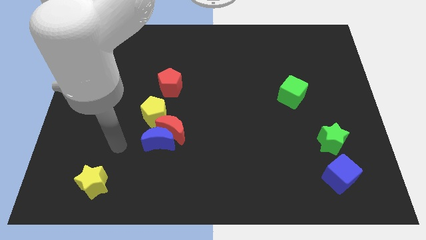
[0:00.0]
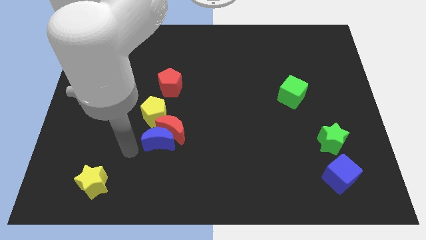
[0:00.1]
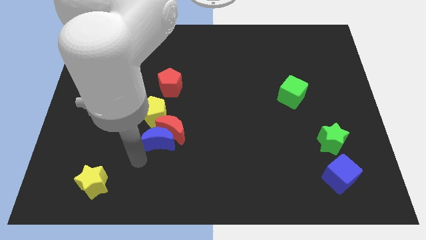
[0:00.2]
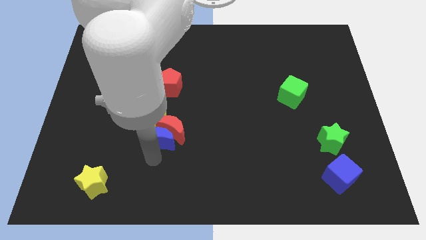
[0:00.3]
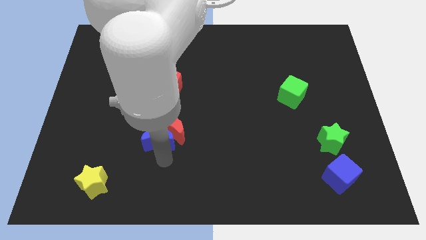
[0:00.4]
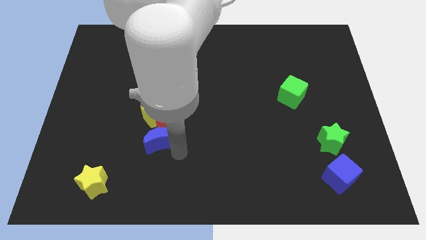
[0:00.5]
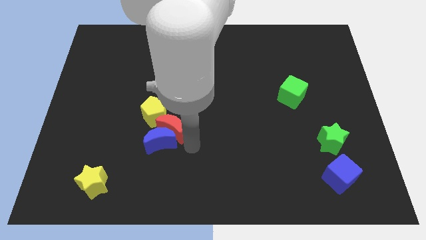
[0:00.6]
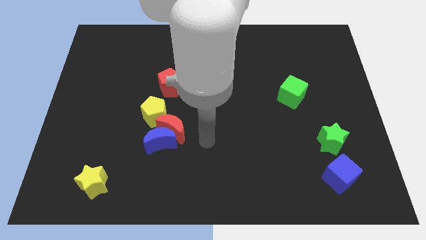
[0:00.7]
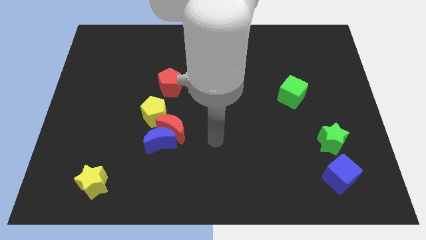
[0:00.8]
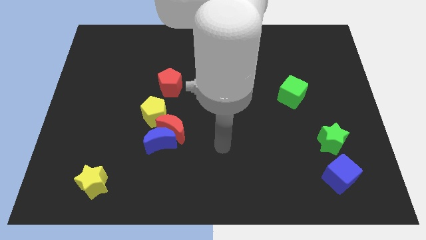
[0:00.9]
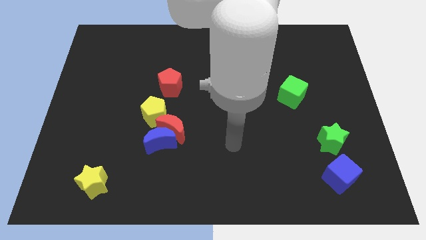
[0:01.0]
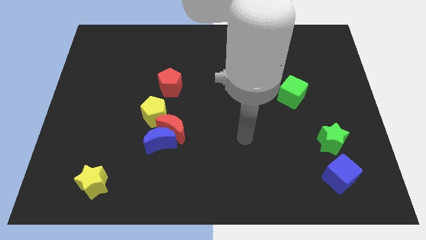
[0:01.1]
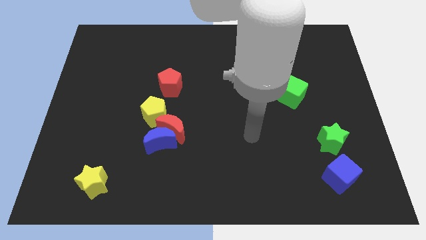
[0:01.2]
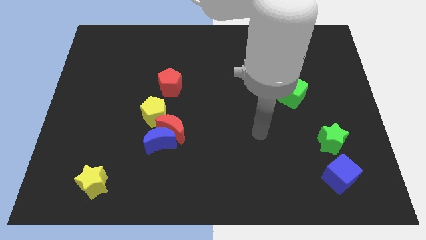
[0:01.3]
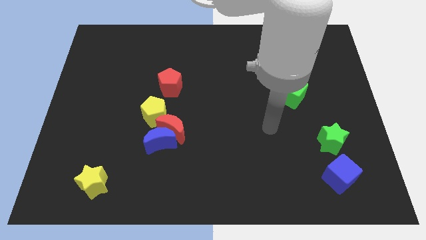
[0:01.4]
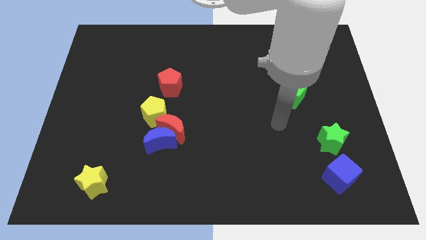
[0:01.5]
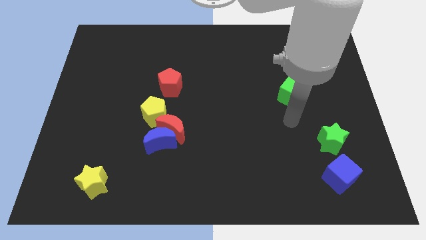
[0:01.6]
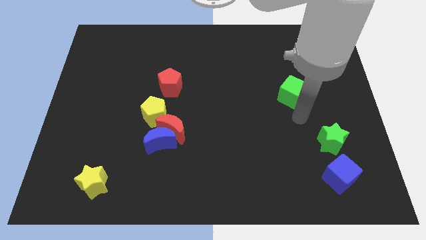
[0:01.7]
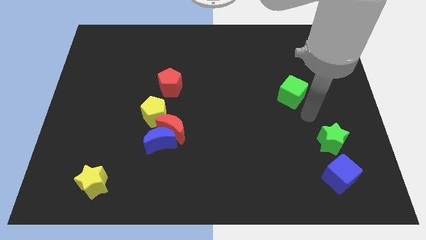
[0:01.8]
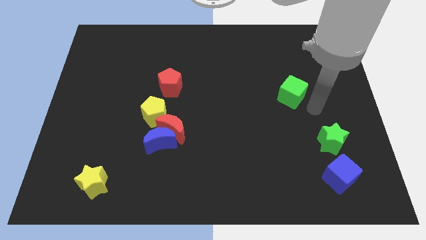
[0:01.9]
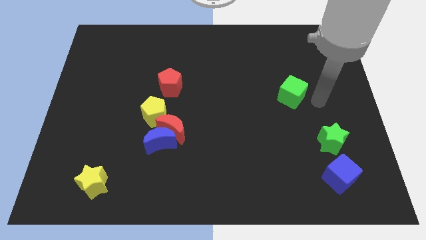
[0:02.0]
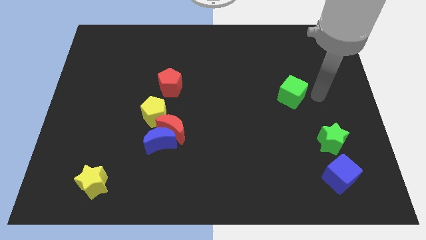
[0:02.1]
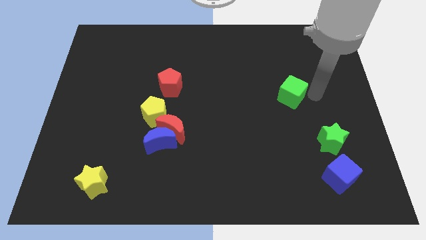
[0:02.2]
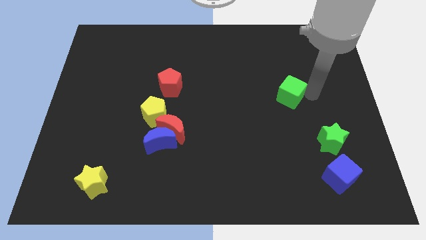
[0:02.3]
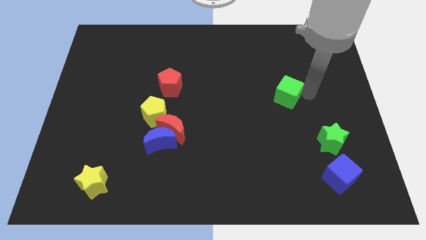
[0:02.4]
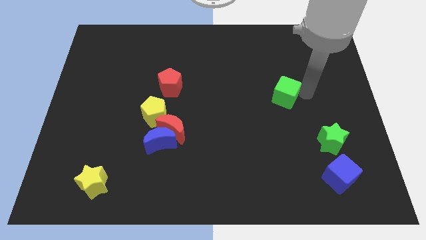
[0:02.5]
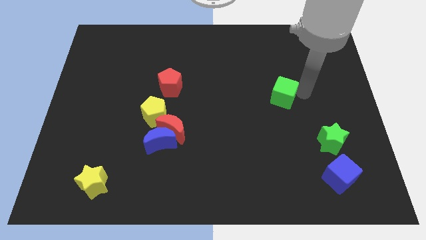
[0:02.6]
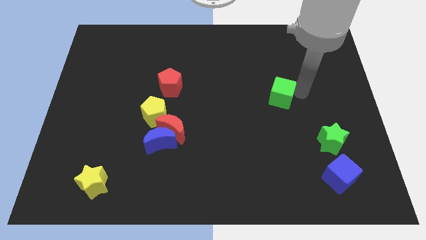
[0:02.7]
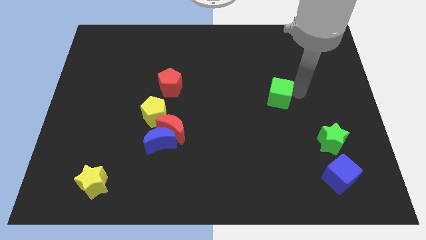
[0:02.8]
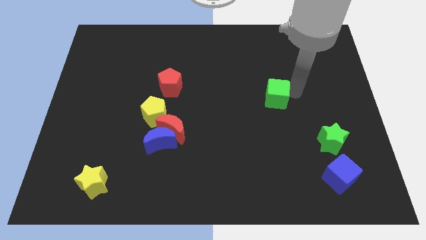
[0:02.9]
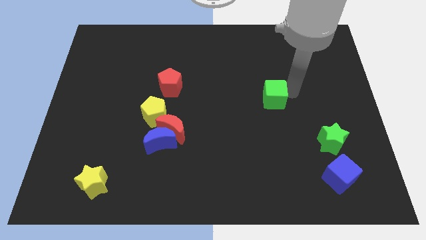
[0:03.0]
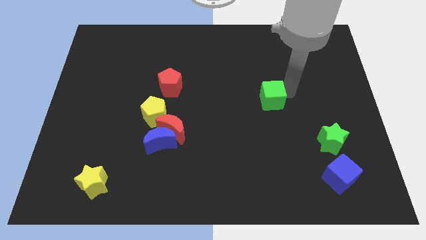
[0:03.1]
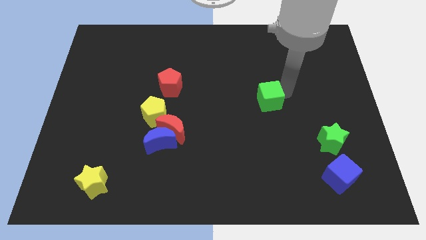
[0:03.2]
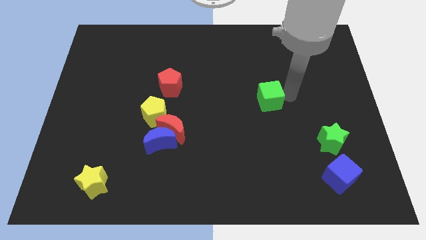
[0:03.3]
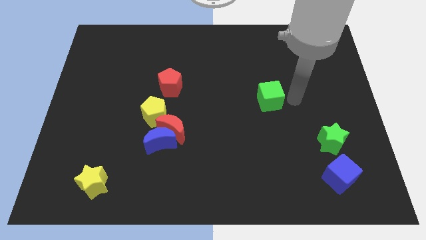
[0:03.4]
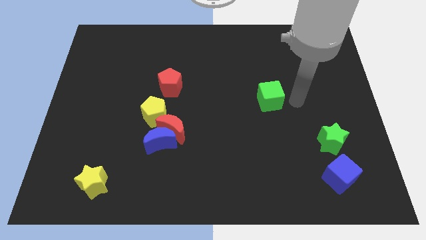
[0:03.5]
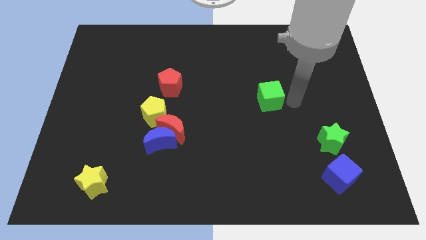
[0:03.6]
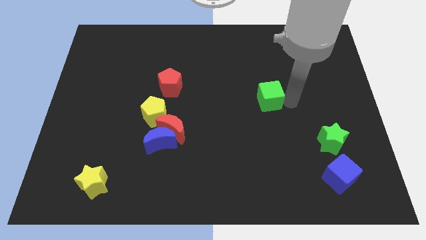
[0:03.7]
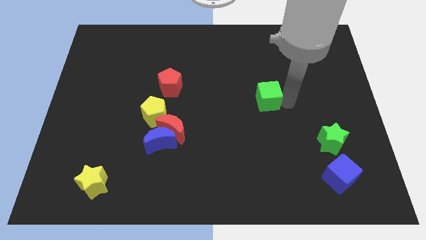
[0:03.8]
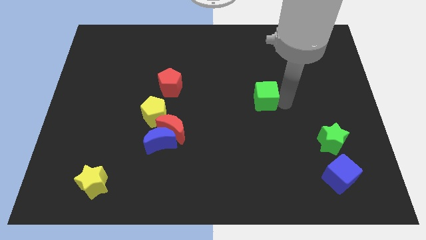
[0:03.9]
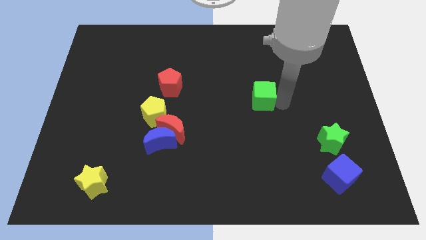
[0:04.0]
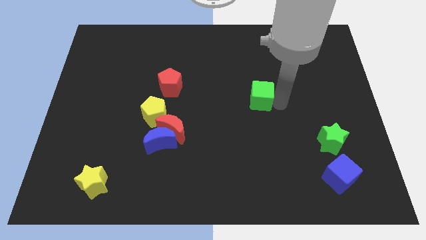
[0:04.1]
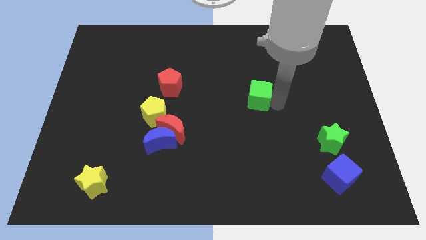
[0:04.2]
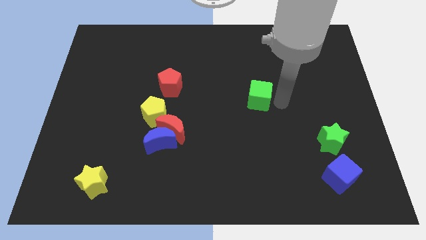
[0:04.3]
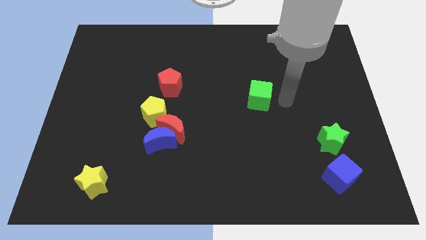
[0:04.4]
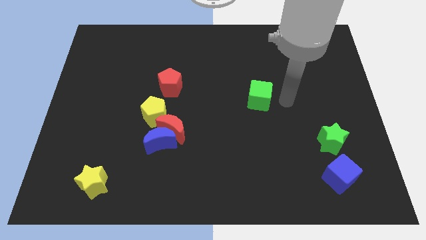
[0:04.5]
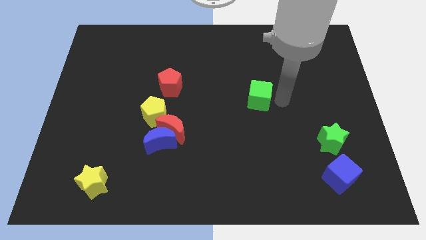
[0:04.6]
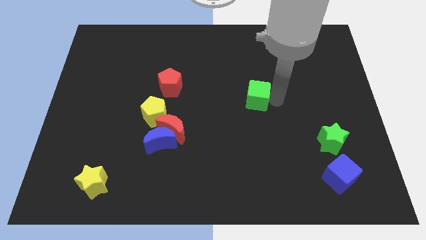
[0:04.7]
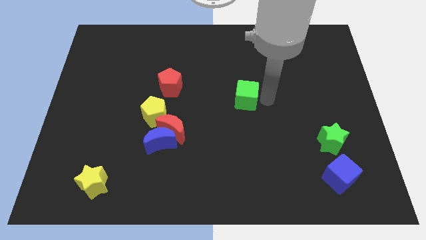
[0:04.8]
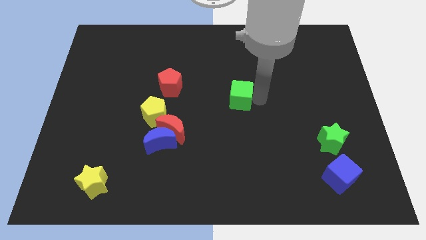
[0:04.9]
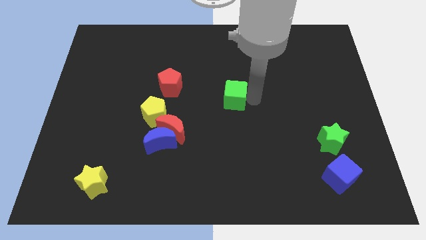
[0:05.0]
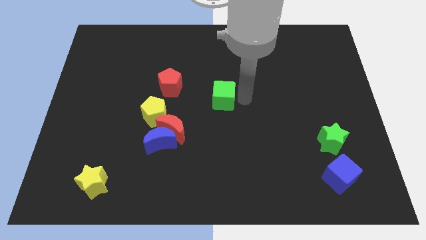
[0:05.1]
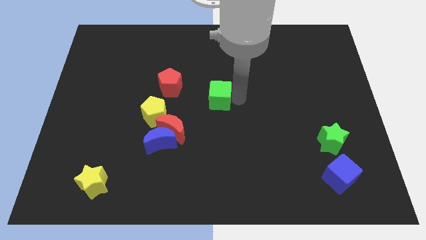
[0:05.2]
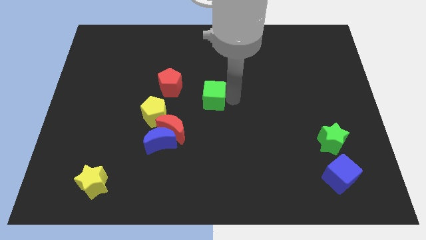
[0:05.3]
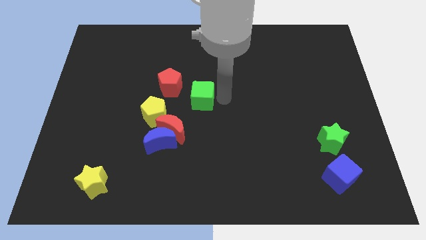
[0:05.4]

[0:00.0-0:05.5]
push the green cube to the left

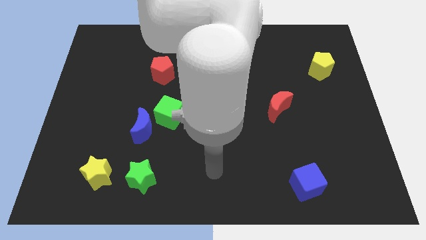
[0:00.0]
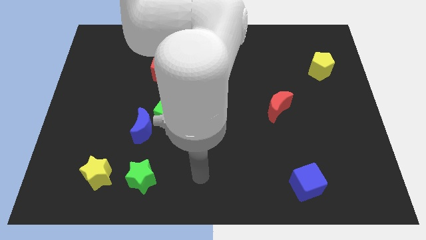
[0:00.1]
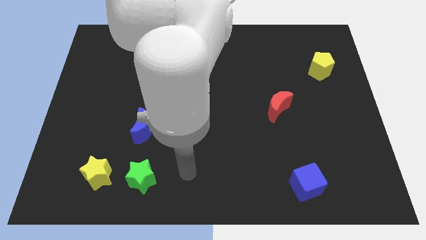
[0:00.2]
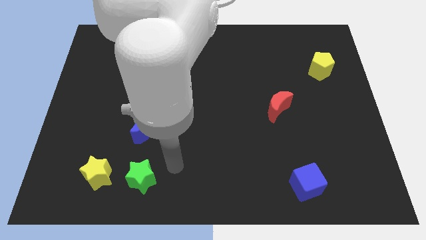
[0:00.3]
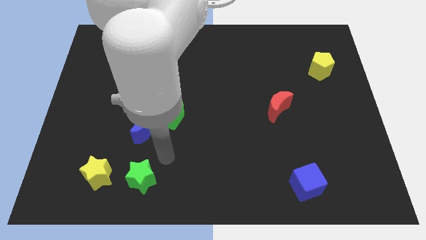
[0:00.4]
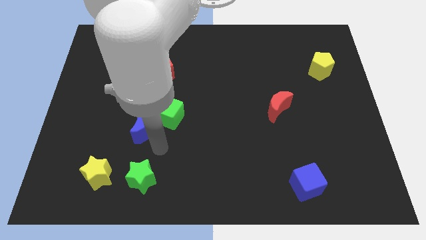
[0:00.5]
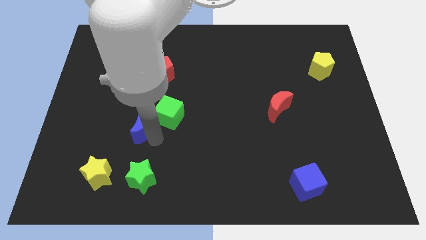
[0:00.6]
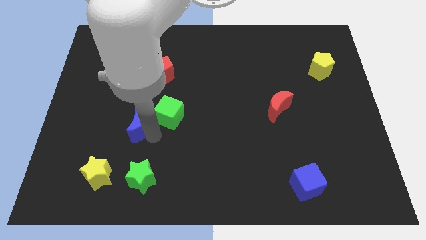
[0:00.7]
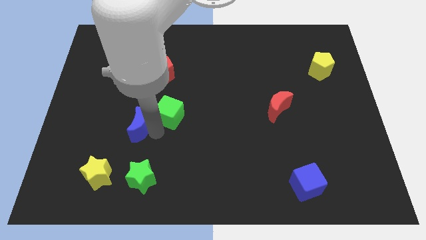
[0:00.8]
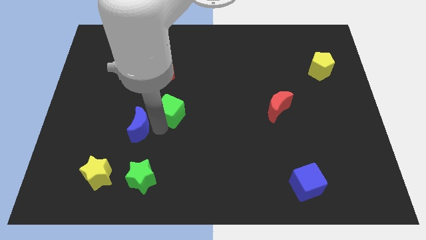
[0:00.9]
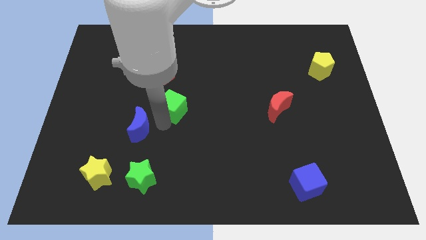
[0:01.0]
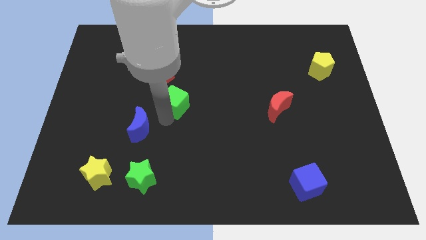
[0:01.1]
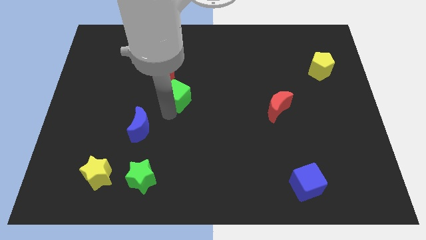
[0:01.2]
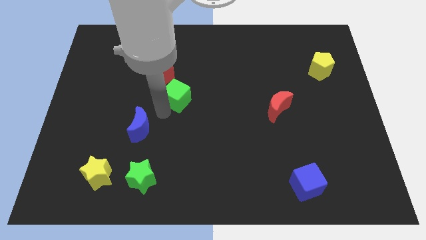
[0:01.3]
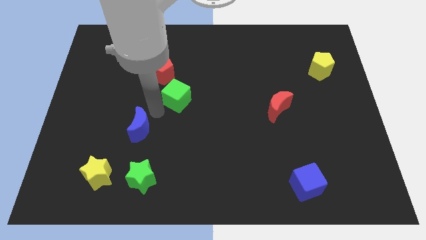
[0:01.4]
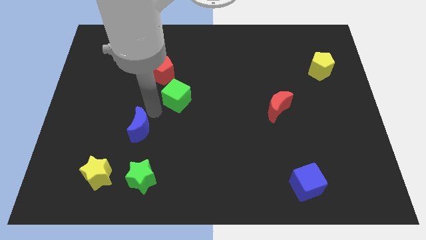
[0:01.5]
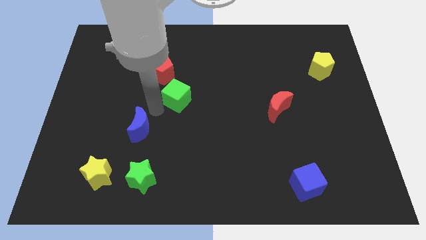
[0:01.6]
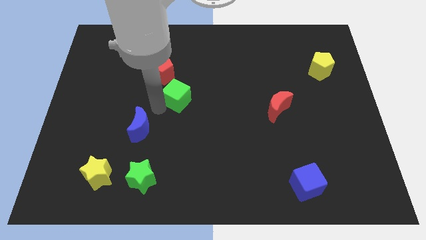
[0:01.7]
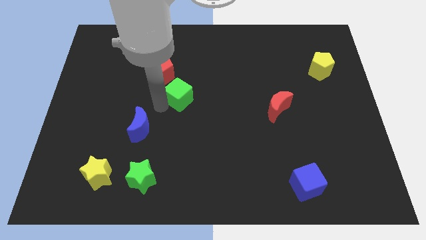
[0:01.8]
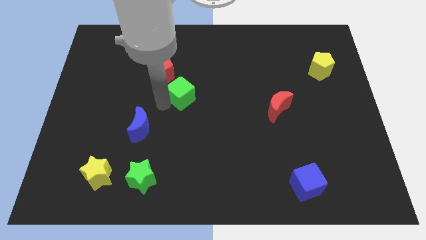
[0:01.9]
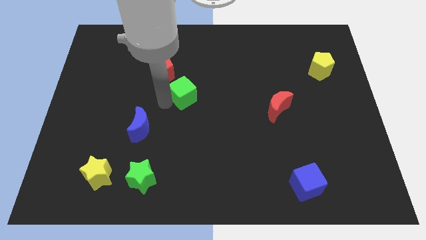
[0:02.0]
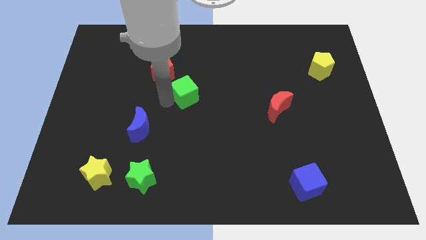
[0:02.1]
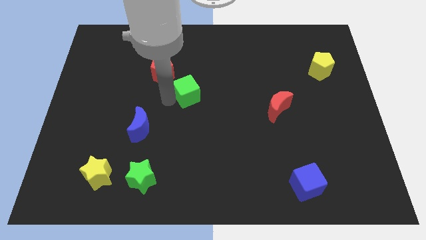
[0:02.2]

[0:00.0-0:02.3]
slightly push the green cube up and right

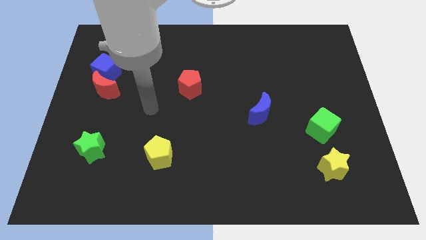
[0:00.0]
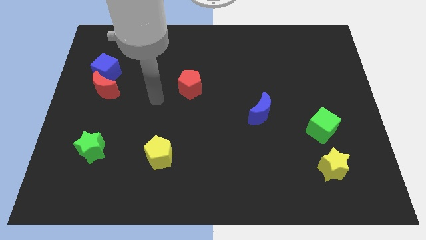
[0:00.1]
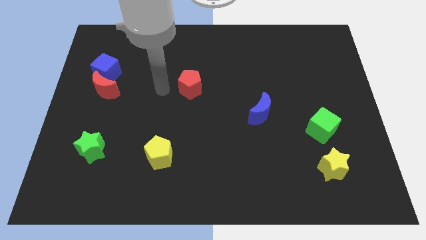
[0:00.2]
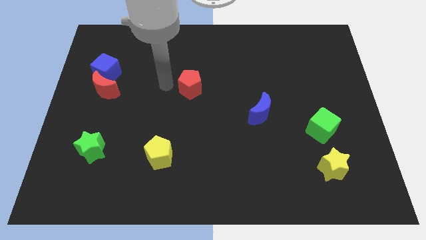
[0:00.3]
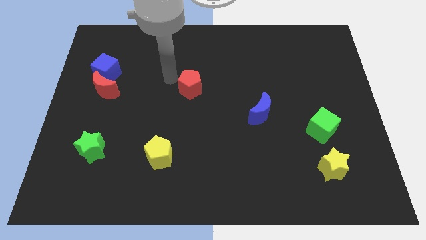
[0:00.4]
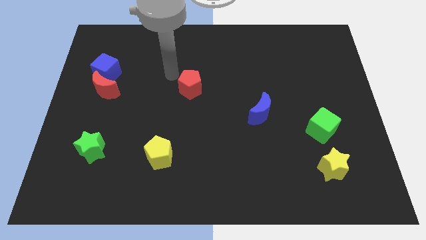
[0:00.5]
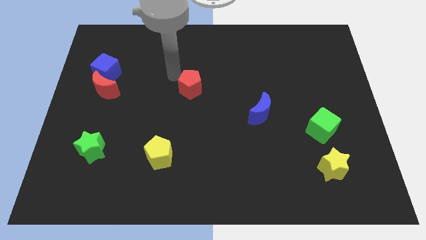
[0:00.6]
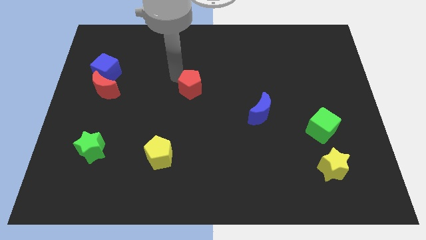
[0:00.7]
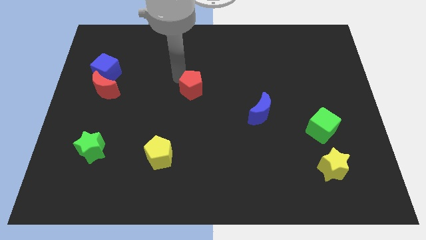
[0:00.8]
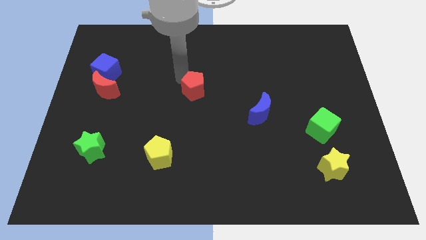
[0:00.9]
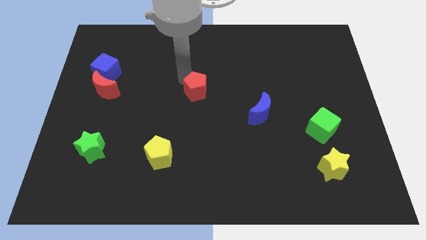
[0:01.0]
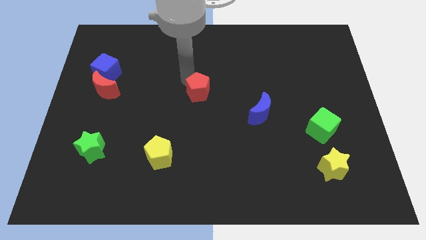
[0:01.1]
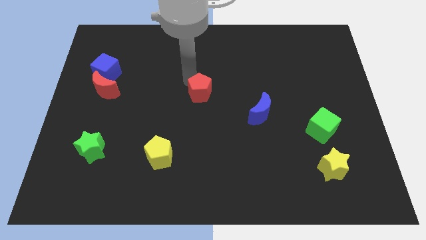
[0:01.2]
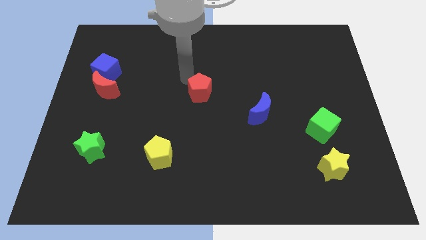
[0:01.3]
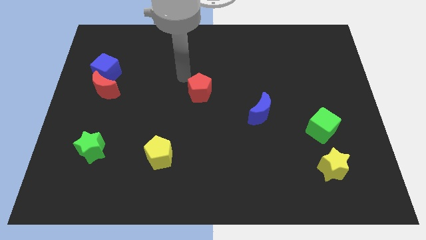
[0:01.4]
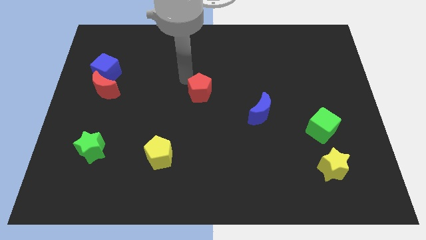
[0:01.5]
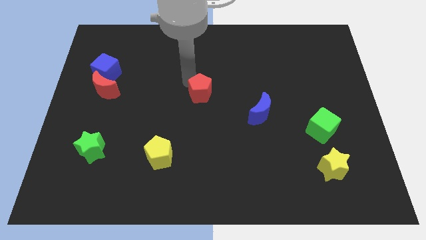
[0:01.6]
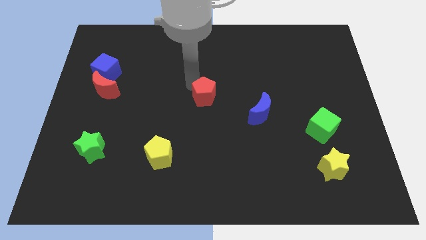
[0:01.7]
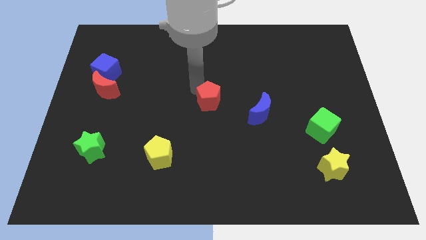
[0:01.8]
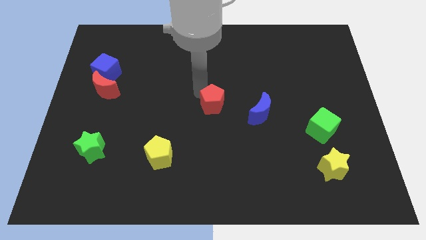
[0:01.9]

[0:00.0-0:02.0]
slightly slide the red pentagon diagonally downwards and to the right
